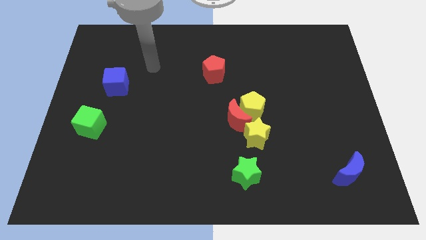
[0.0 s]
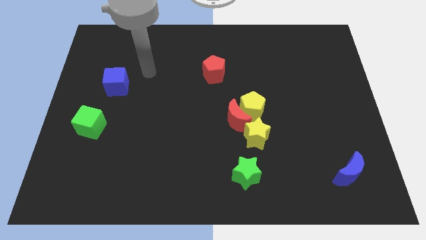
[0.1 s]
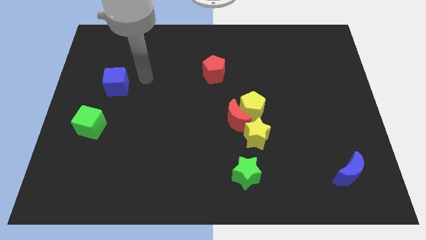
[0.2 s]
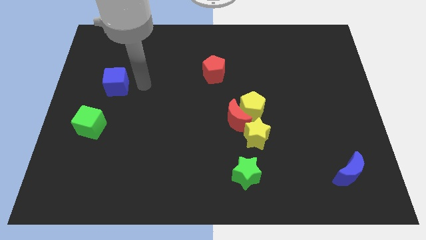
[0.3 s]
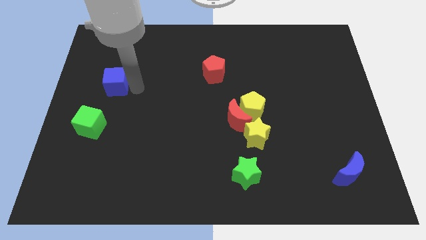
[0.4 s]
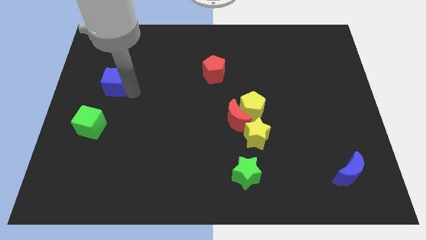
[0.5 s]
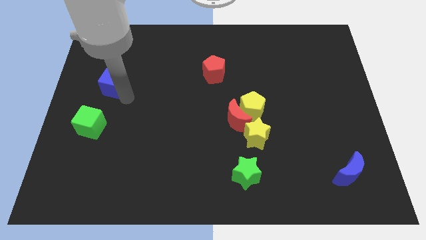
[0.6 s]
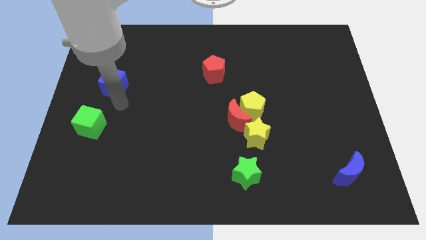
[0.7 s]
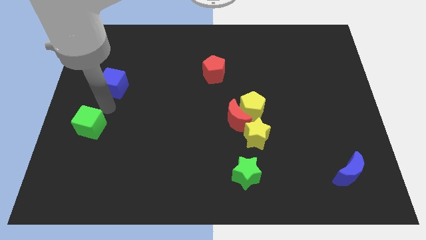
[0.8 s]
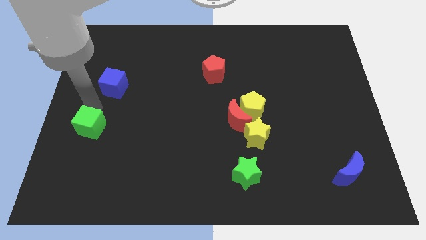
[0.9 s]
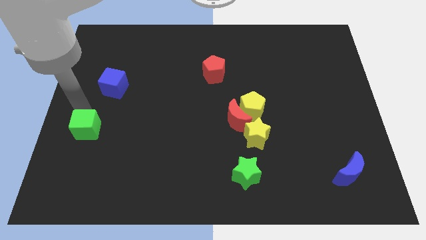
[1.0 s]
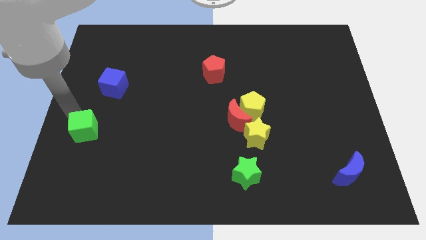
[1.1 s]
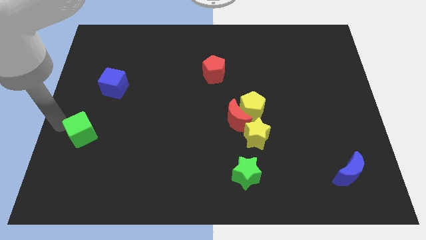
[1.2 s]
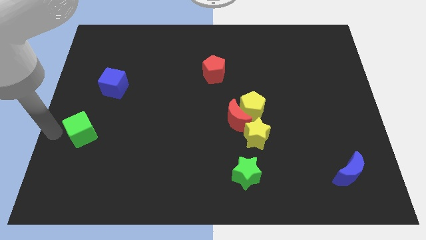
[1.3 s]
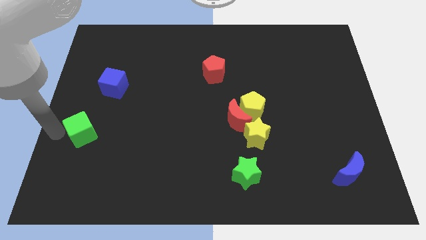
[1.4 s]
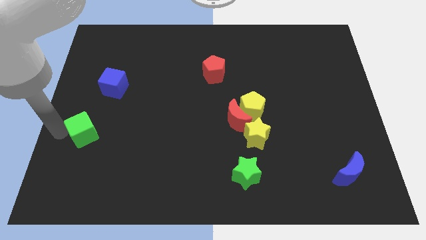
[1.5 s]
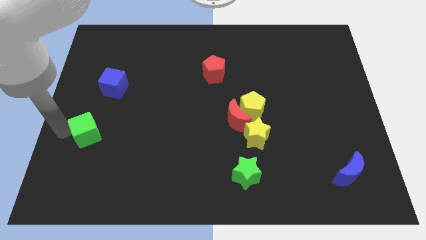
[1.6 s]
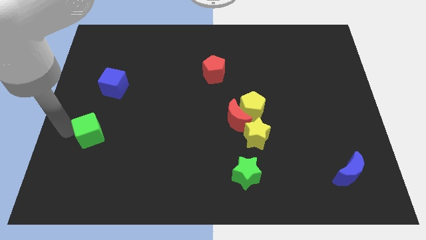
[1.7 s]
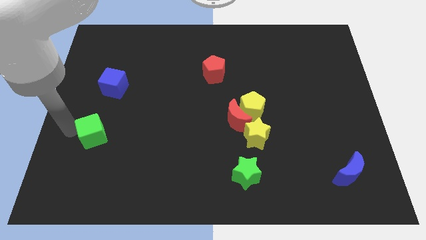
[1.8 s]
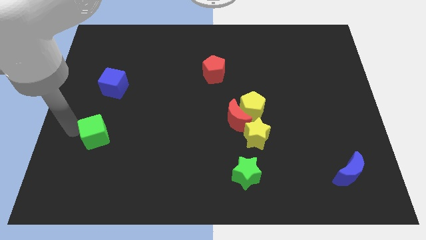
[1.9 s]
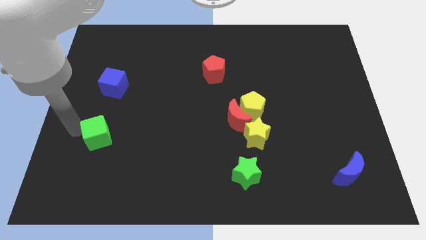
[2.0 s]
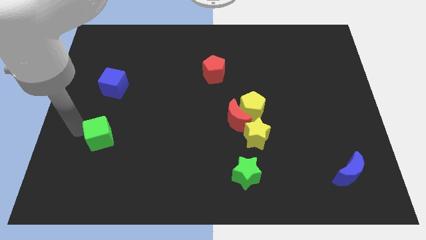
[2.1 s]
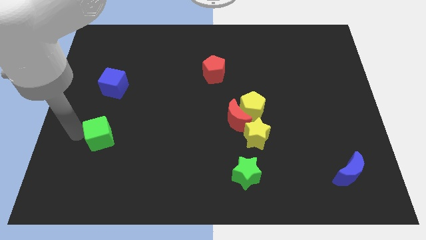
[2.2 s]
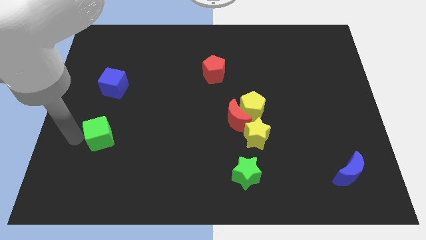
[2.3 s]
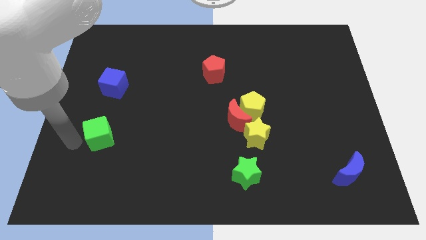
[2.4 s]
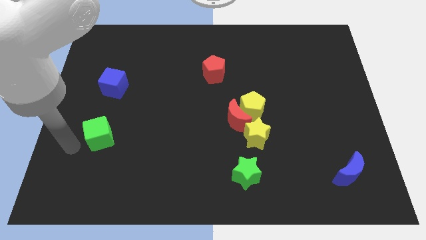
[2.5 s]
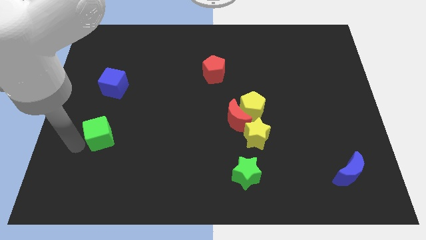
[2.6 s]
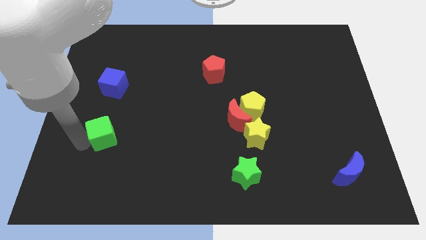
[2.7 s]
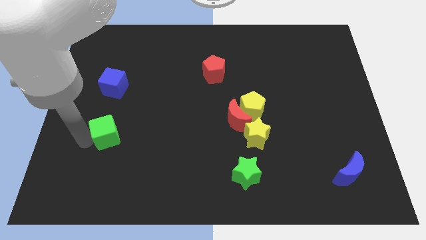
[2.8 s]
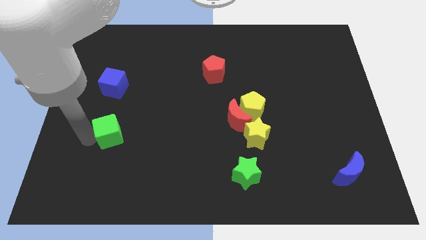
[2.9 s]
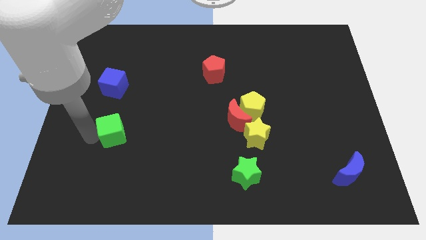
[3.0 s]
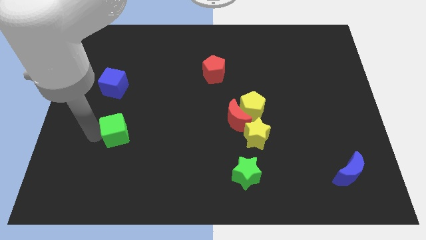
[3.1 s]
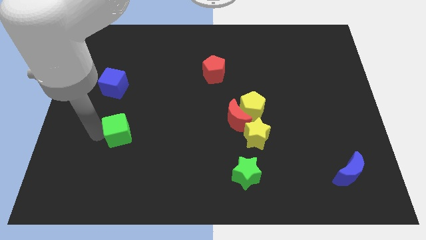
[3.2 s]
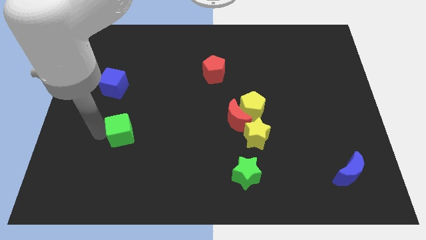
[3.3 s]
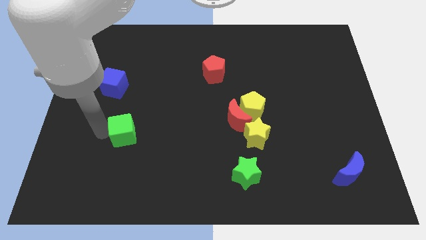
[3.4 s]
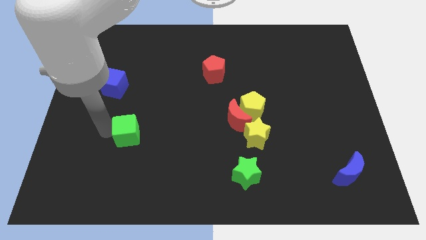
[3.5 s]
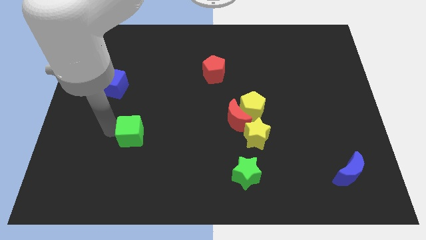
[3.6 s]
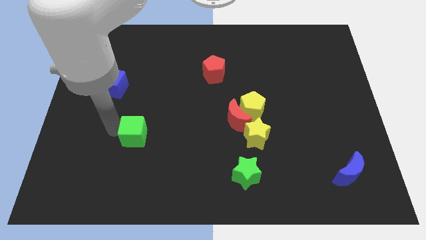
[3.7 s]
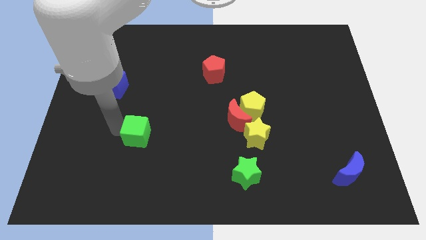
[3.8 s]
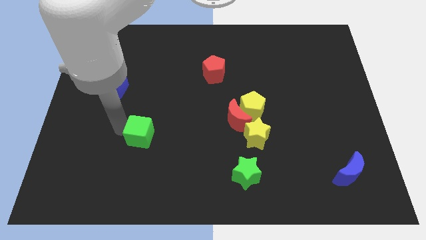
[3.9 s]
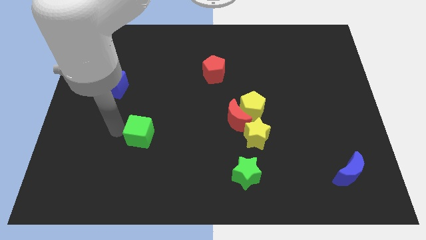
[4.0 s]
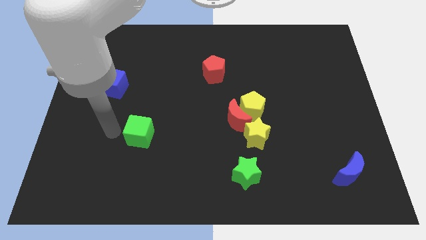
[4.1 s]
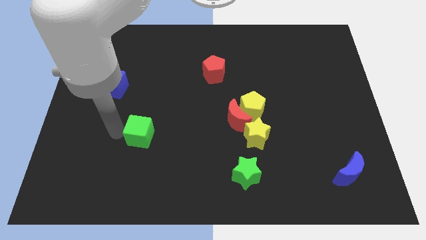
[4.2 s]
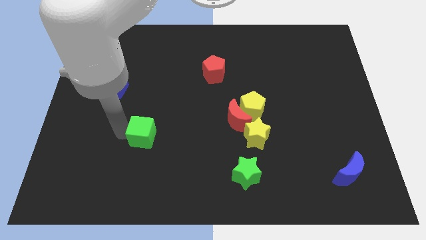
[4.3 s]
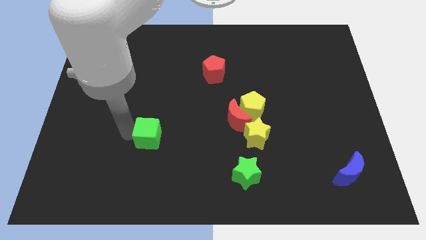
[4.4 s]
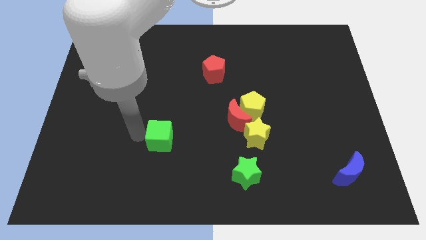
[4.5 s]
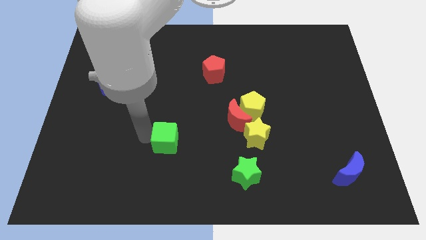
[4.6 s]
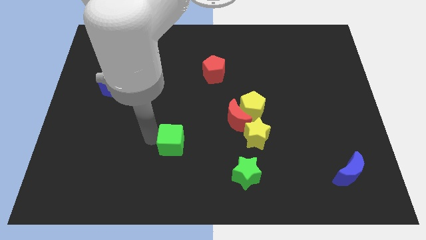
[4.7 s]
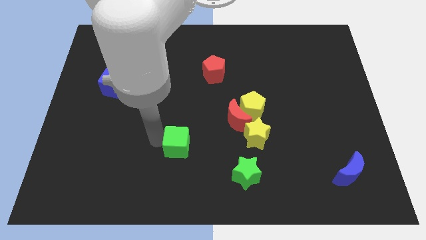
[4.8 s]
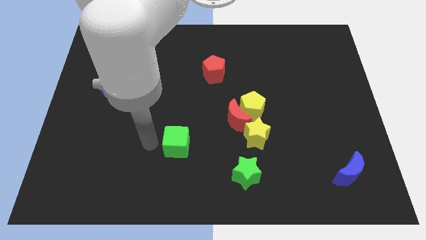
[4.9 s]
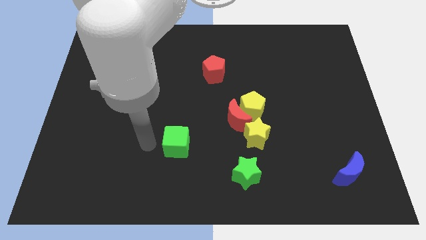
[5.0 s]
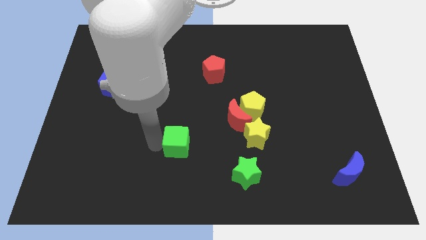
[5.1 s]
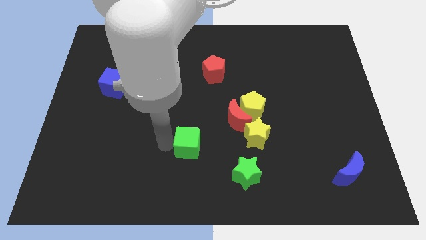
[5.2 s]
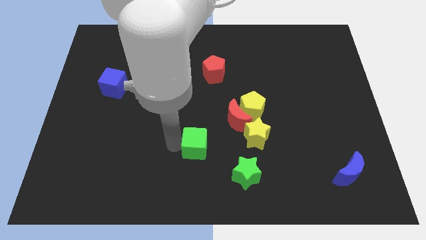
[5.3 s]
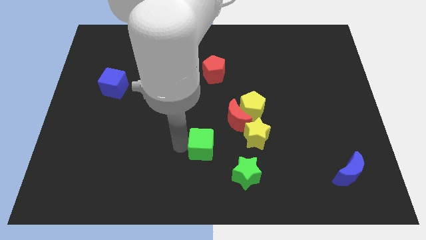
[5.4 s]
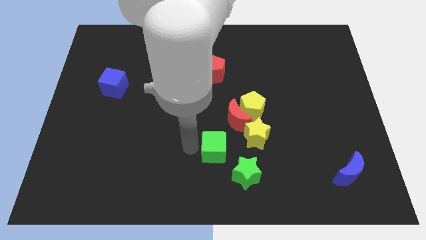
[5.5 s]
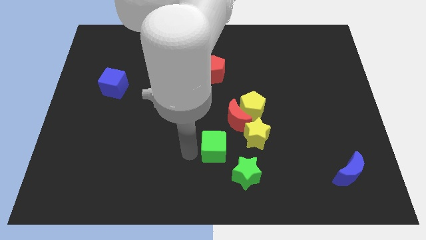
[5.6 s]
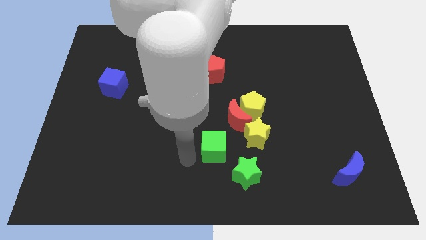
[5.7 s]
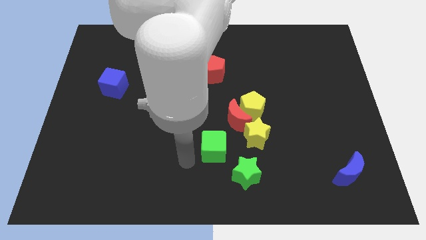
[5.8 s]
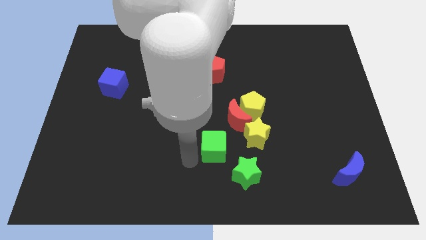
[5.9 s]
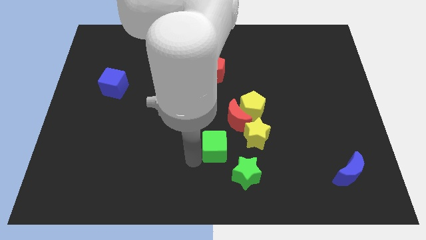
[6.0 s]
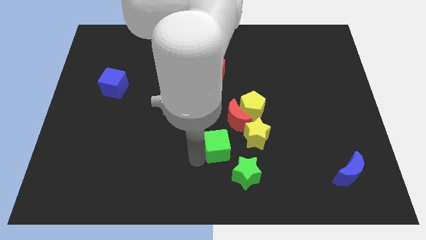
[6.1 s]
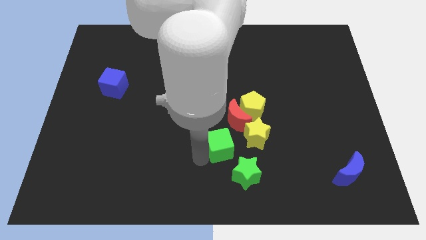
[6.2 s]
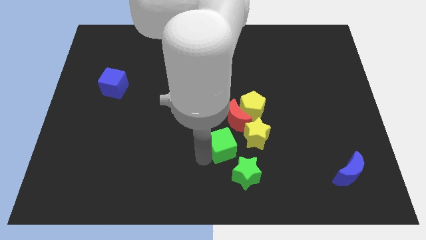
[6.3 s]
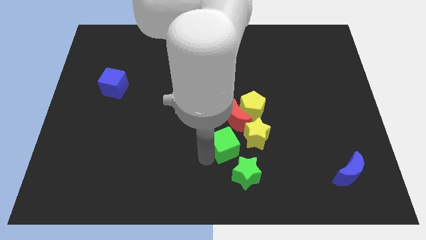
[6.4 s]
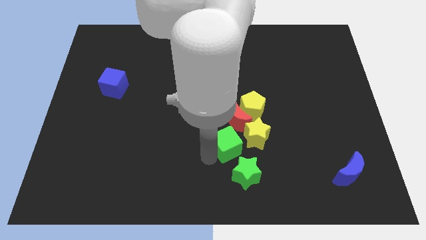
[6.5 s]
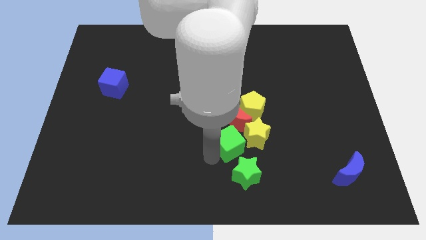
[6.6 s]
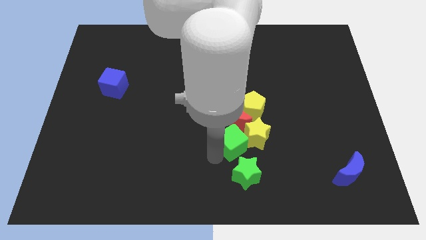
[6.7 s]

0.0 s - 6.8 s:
push the green cube towards the yellow star
